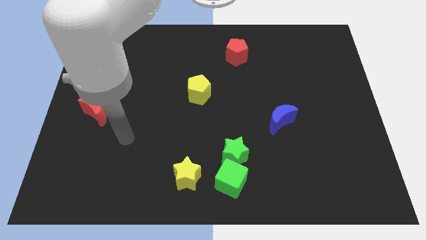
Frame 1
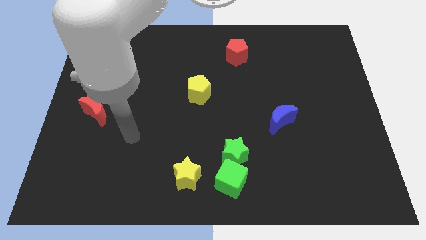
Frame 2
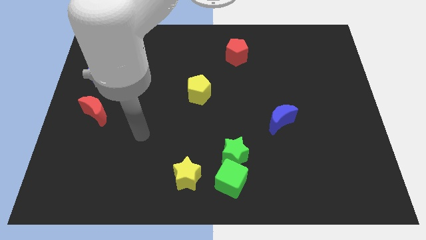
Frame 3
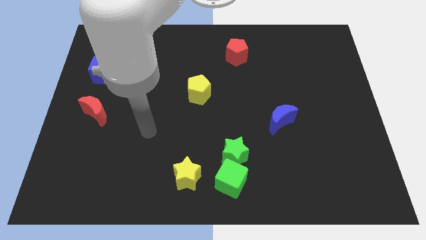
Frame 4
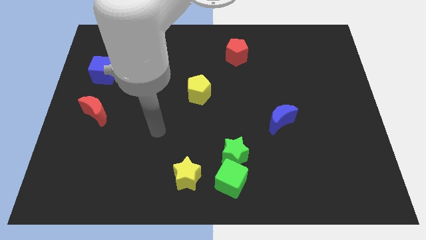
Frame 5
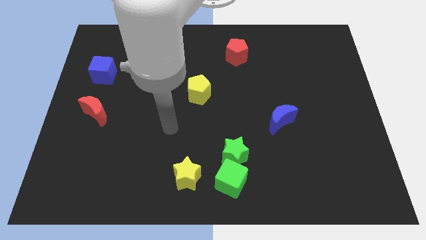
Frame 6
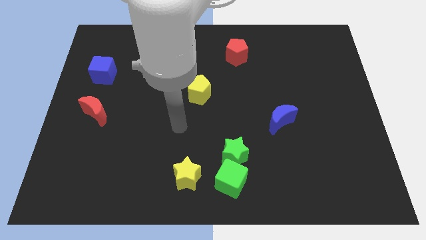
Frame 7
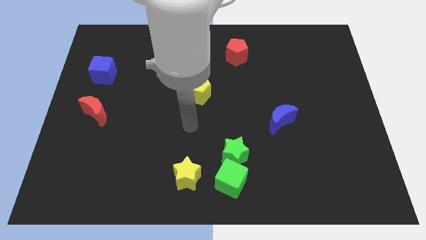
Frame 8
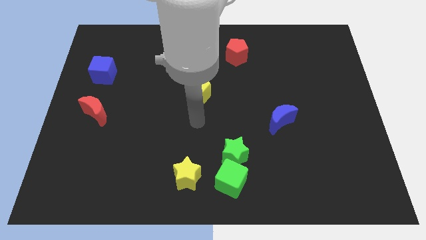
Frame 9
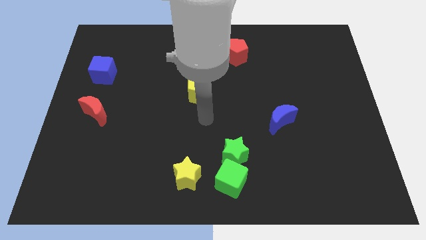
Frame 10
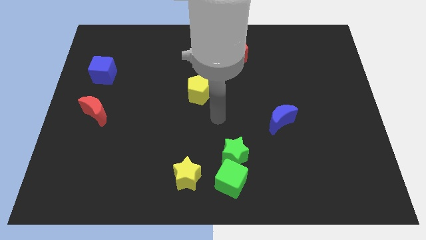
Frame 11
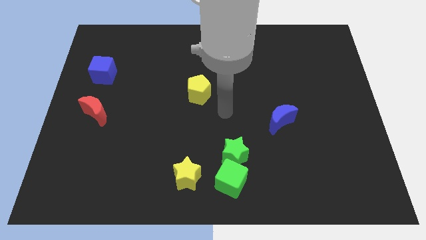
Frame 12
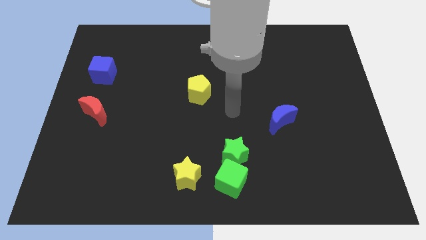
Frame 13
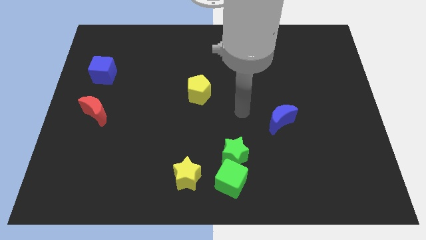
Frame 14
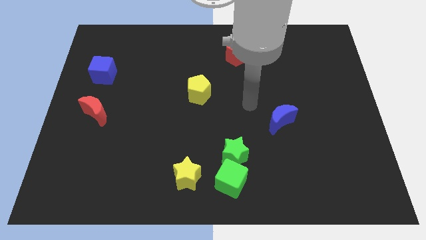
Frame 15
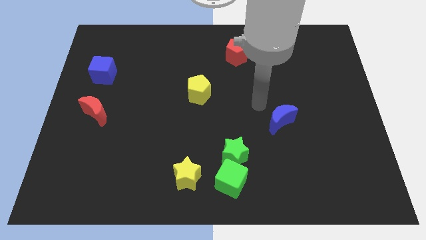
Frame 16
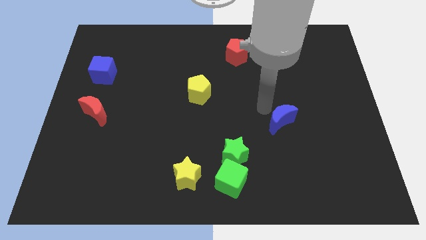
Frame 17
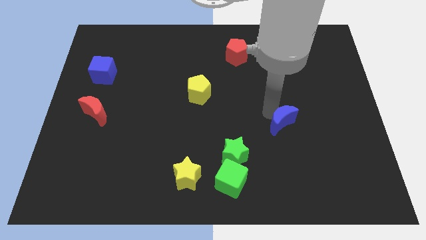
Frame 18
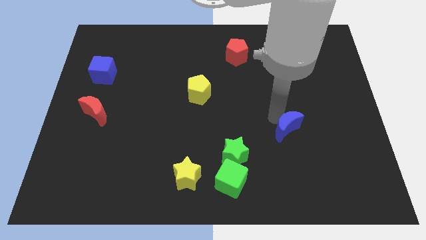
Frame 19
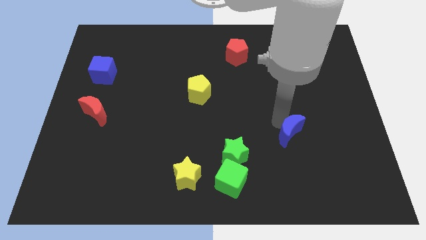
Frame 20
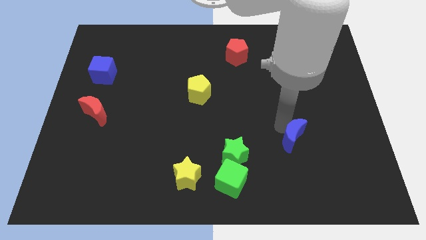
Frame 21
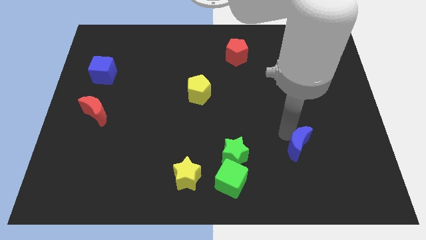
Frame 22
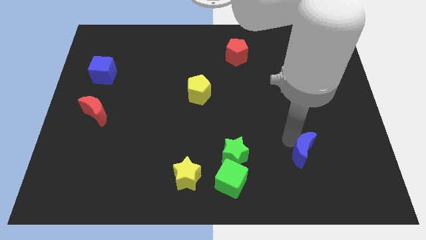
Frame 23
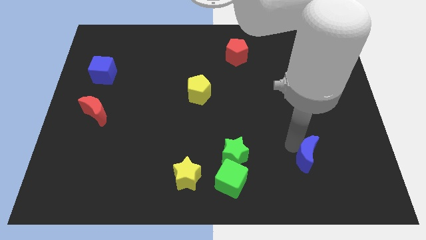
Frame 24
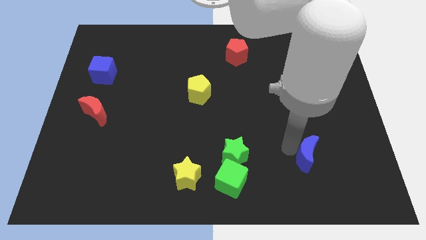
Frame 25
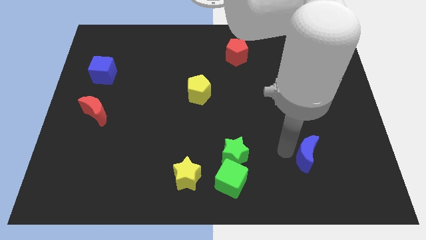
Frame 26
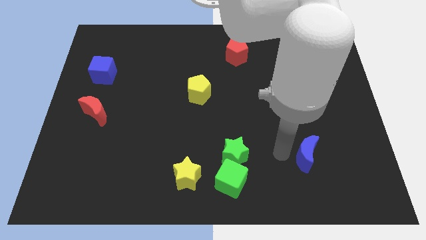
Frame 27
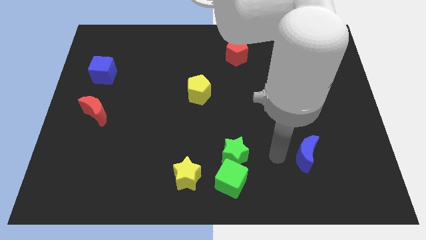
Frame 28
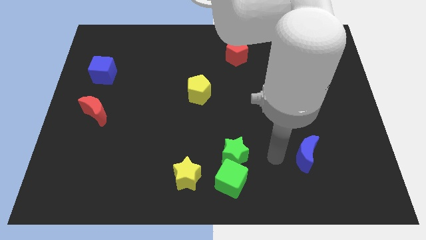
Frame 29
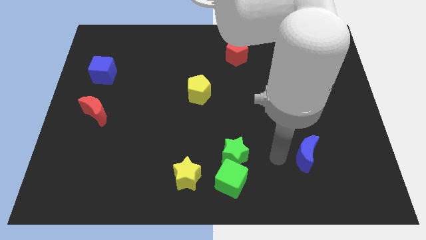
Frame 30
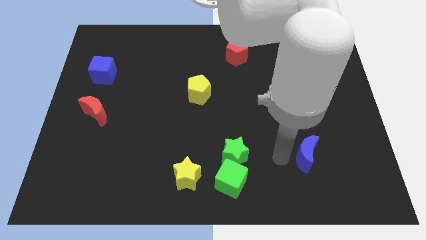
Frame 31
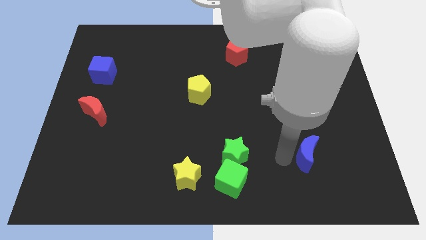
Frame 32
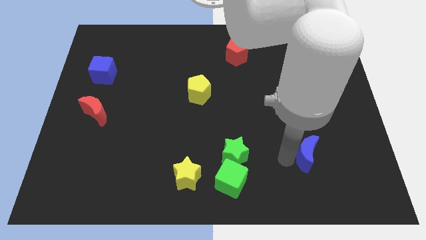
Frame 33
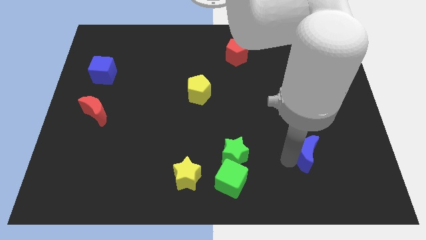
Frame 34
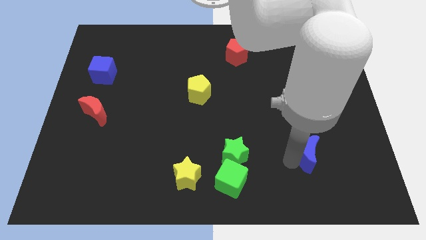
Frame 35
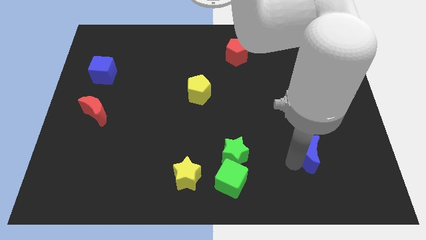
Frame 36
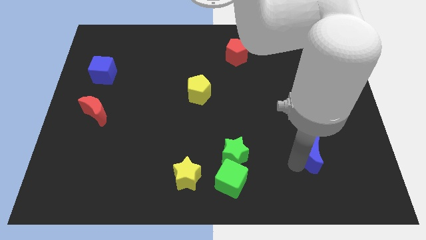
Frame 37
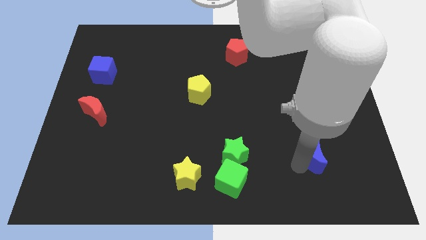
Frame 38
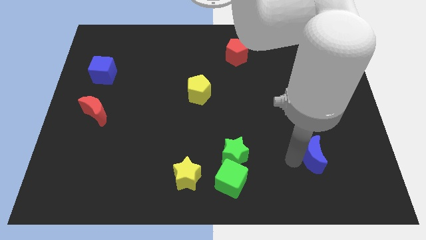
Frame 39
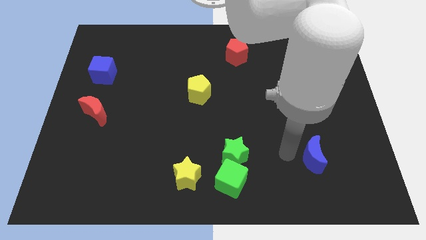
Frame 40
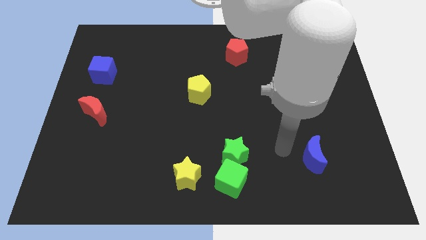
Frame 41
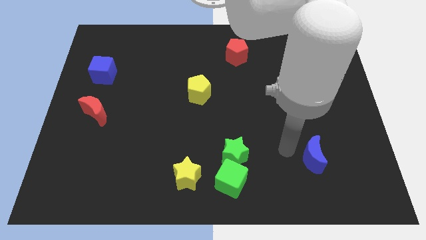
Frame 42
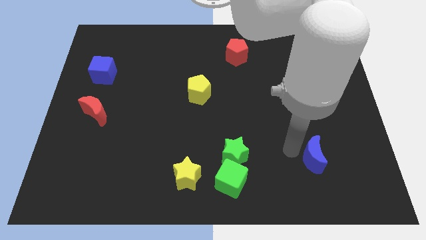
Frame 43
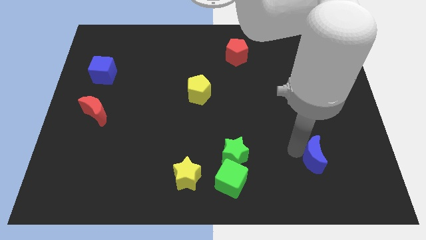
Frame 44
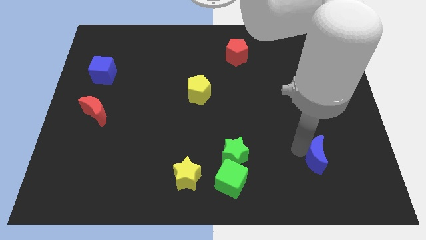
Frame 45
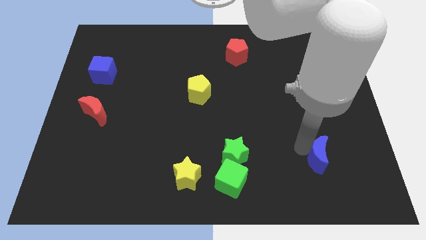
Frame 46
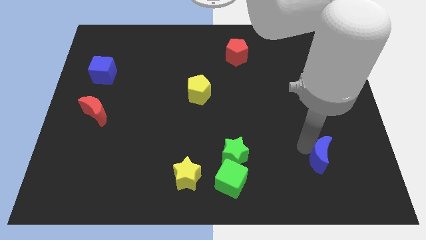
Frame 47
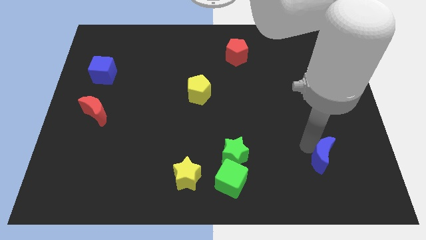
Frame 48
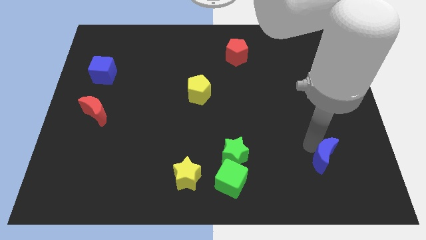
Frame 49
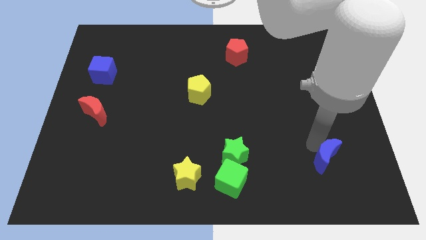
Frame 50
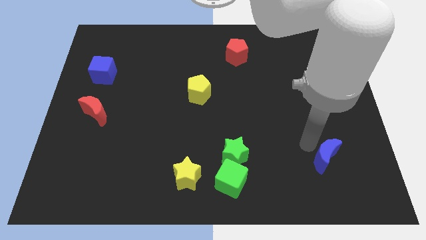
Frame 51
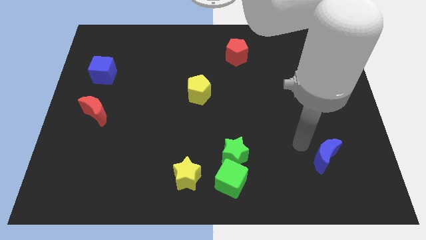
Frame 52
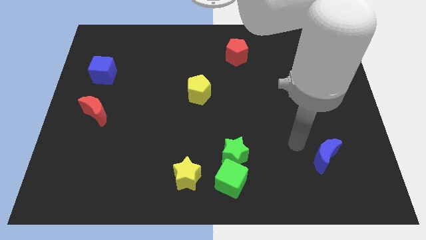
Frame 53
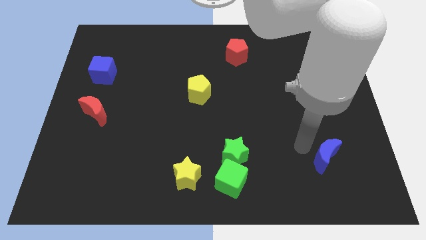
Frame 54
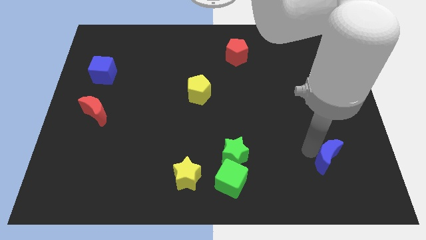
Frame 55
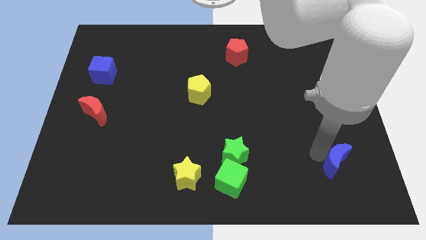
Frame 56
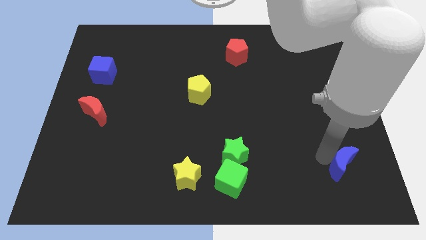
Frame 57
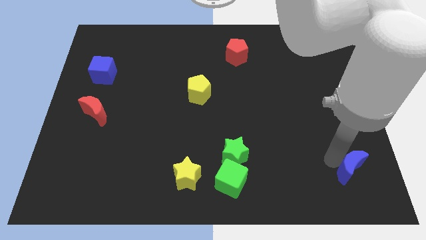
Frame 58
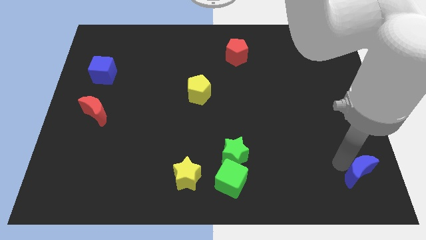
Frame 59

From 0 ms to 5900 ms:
slide the blue moon to the bottom right corner

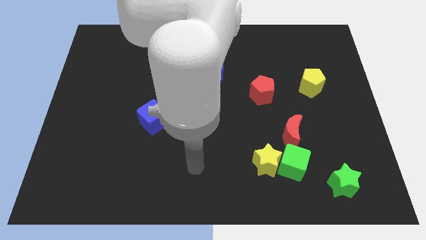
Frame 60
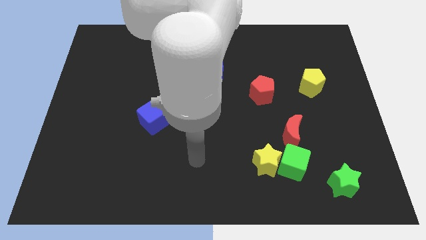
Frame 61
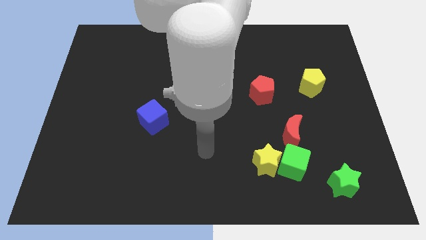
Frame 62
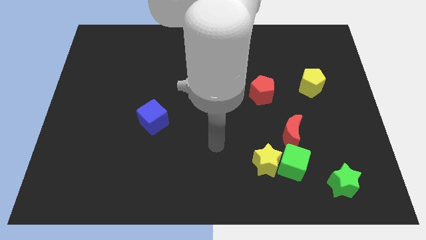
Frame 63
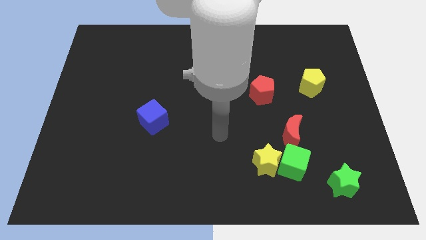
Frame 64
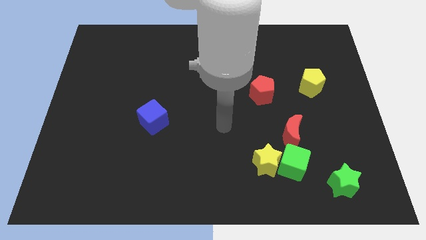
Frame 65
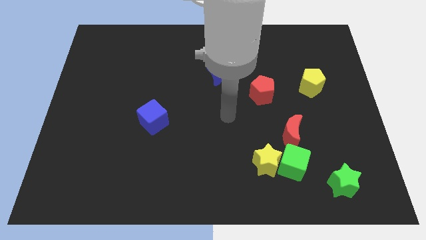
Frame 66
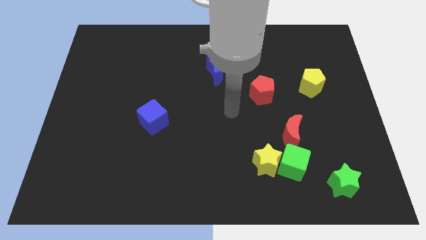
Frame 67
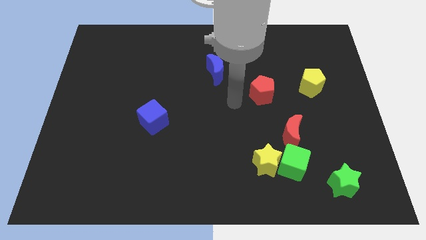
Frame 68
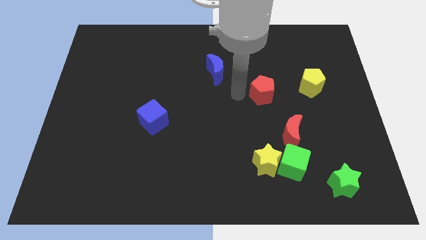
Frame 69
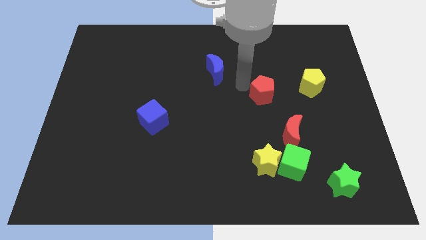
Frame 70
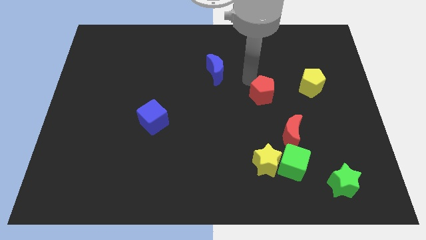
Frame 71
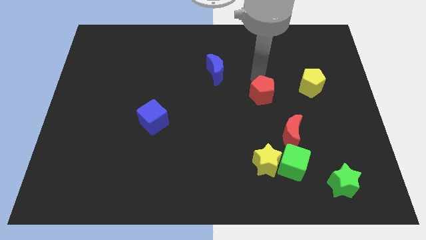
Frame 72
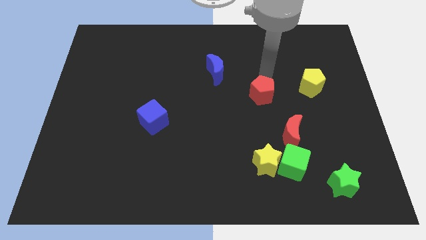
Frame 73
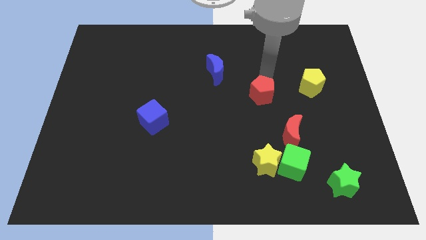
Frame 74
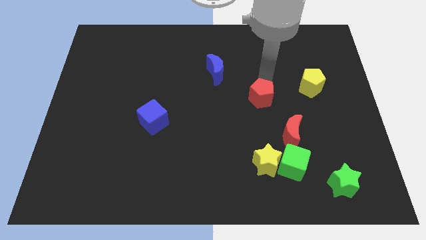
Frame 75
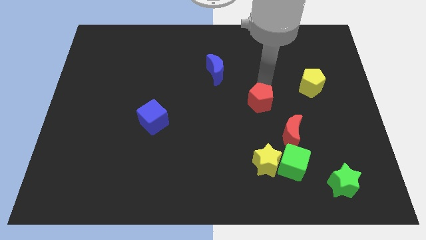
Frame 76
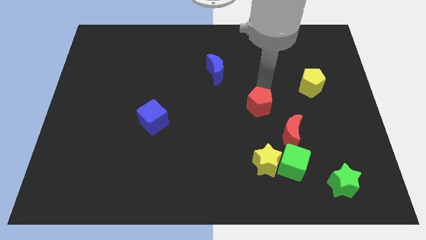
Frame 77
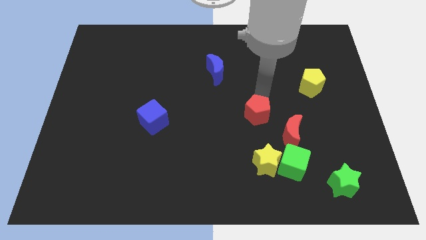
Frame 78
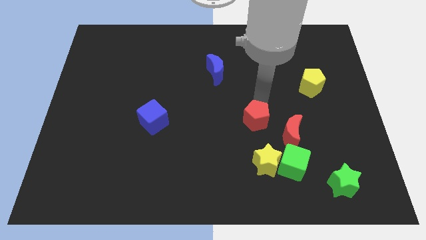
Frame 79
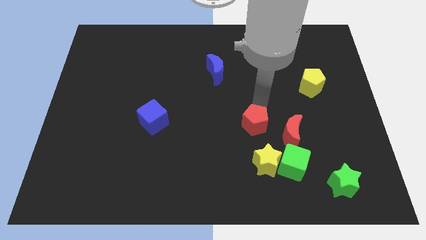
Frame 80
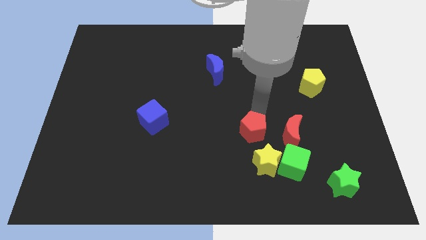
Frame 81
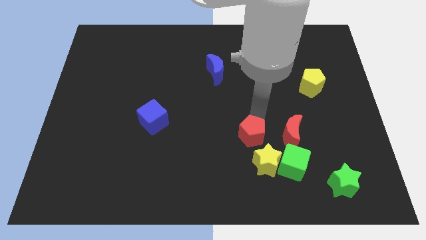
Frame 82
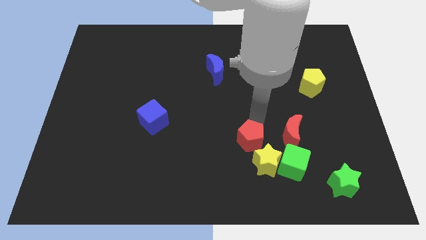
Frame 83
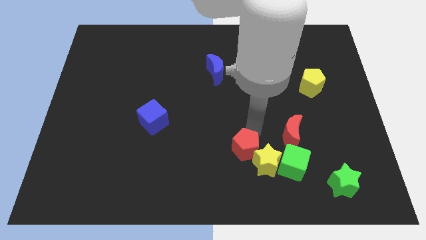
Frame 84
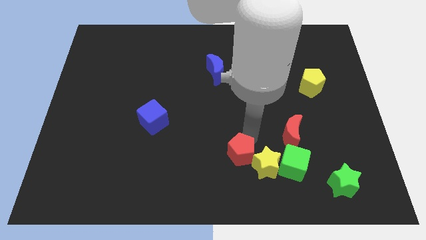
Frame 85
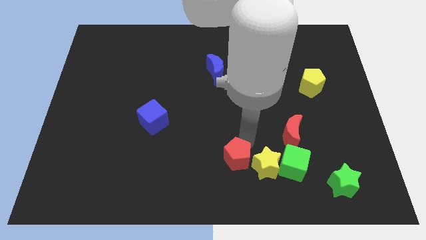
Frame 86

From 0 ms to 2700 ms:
move the red pentagon to the bottom
